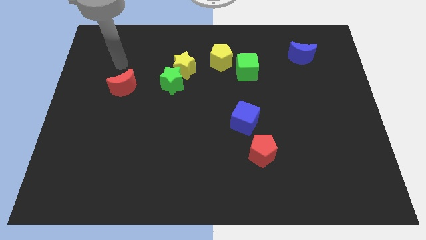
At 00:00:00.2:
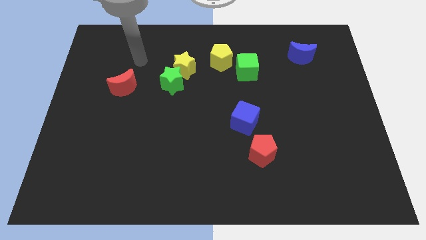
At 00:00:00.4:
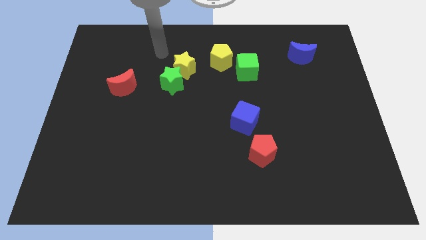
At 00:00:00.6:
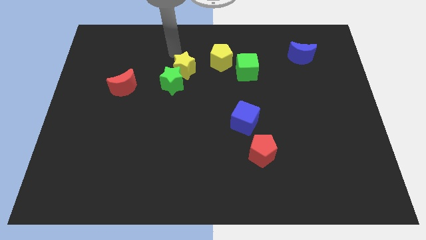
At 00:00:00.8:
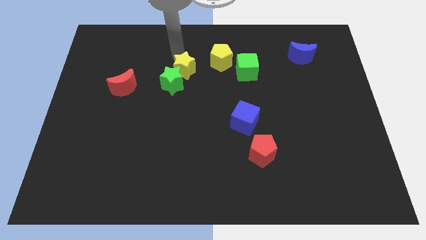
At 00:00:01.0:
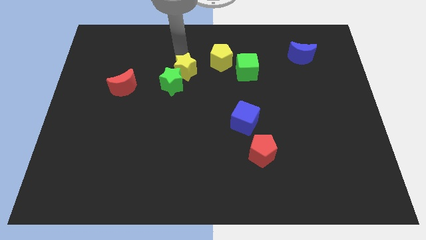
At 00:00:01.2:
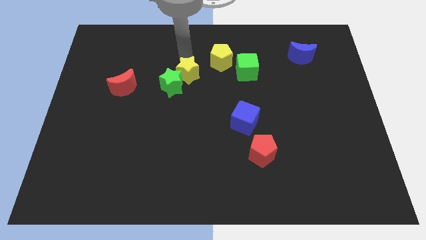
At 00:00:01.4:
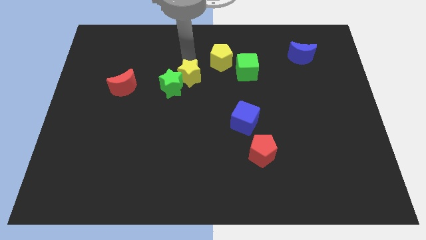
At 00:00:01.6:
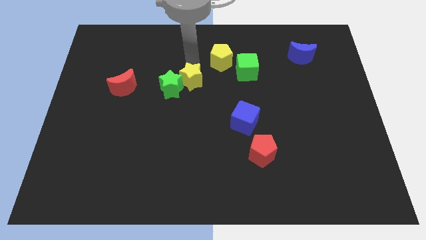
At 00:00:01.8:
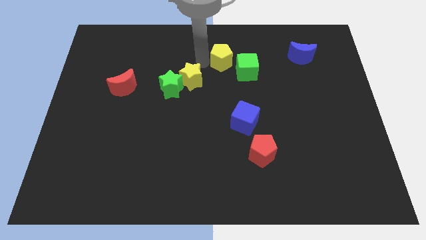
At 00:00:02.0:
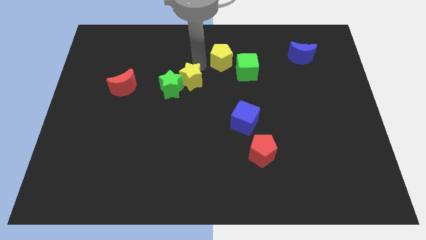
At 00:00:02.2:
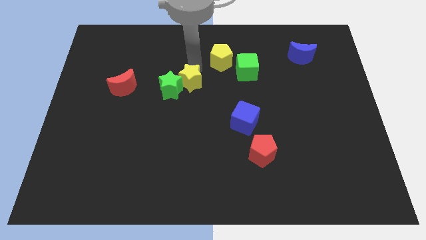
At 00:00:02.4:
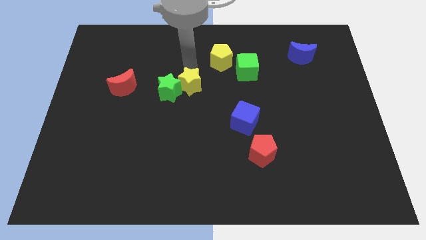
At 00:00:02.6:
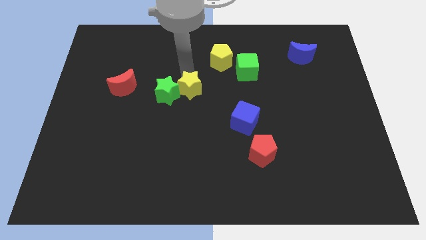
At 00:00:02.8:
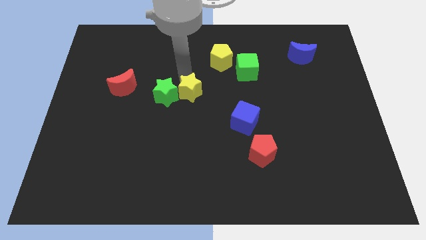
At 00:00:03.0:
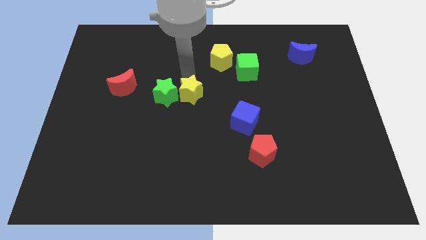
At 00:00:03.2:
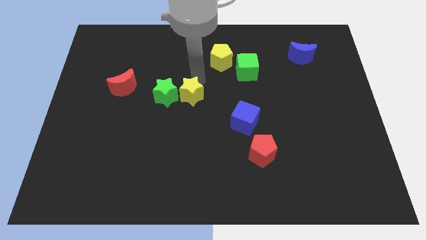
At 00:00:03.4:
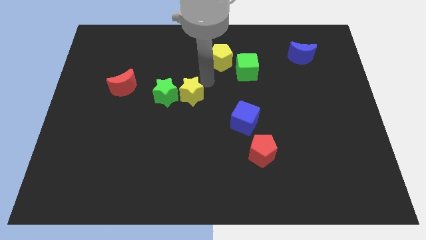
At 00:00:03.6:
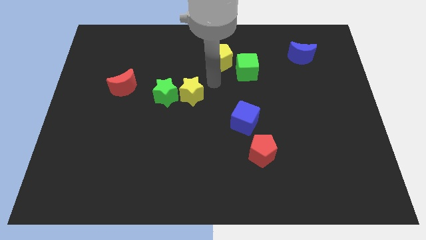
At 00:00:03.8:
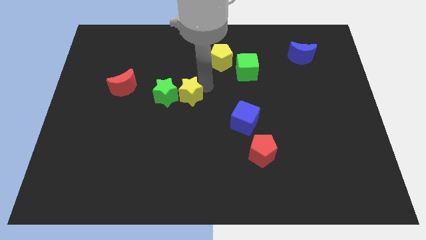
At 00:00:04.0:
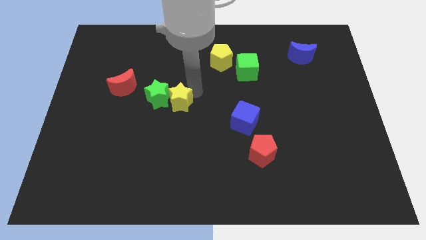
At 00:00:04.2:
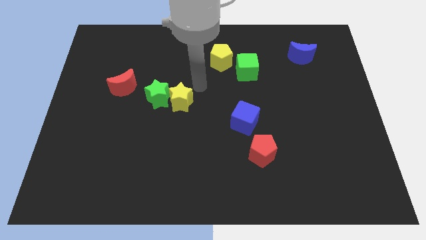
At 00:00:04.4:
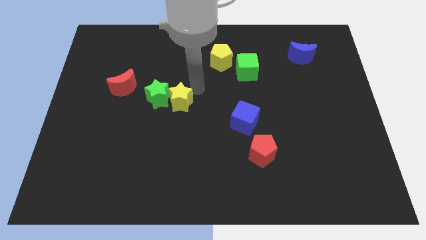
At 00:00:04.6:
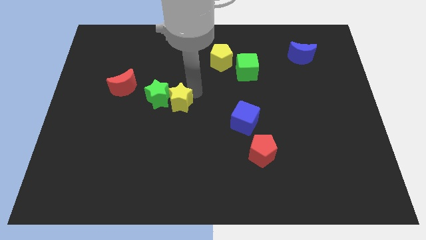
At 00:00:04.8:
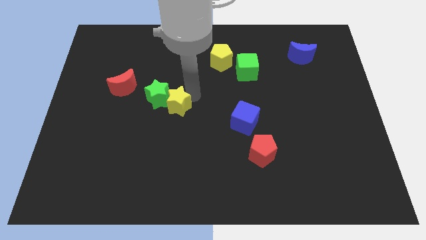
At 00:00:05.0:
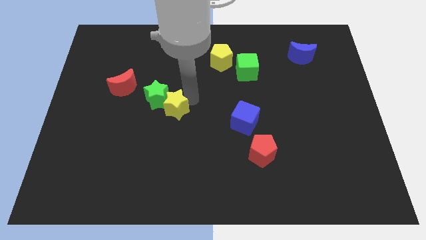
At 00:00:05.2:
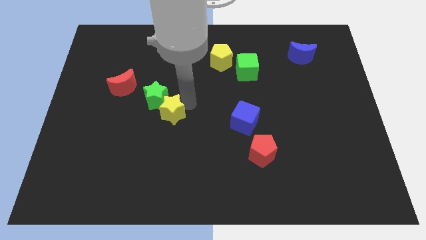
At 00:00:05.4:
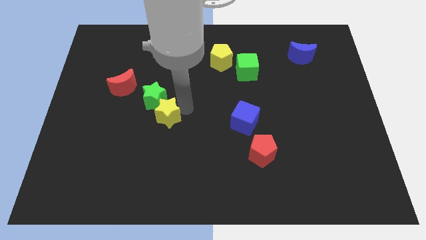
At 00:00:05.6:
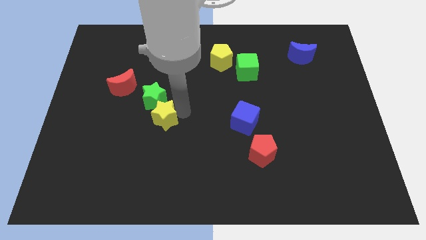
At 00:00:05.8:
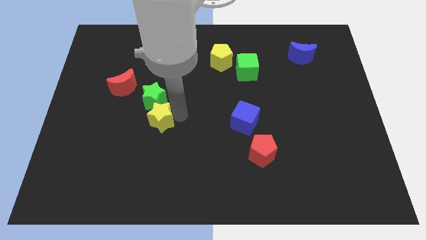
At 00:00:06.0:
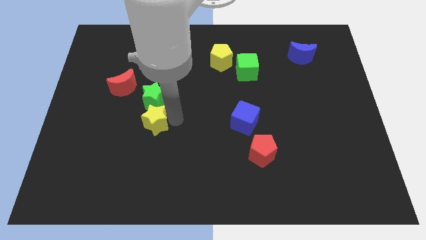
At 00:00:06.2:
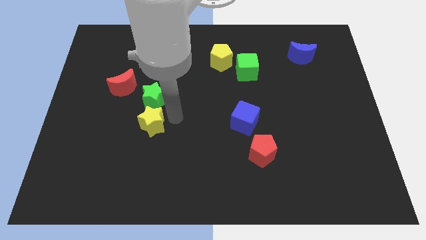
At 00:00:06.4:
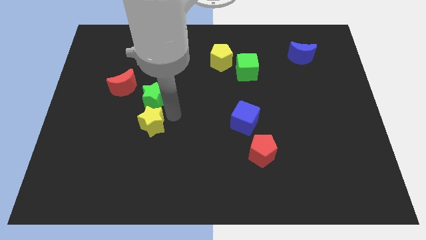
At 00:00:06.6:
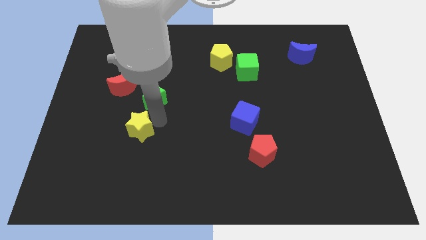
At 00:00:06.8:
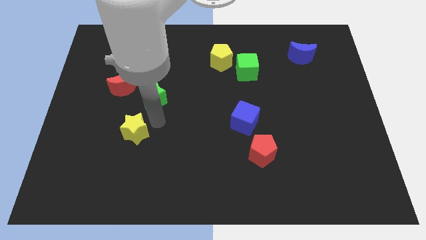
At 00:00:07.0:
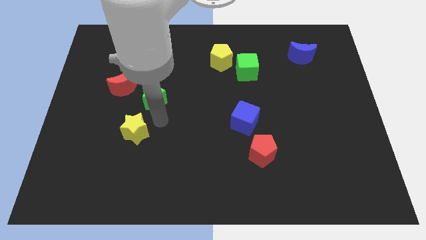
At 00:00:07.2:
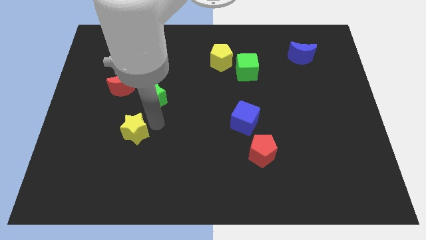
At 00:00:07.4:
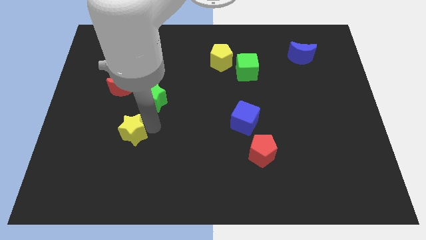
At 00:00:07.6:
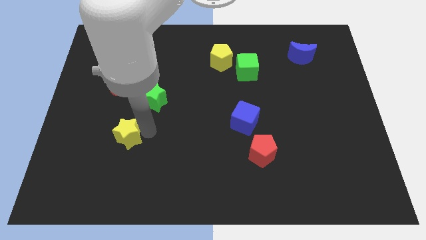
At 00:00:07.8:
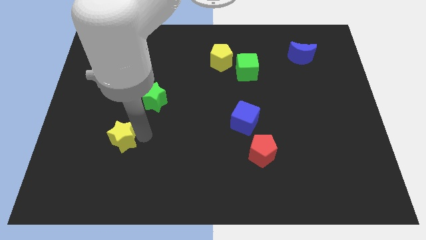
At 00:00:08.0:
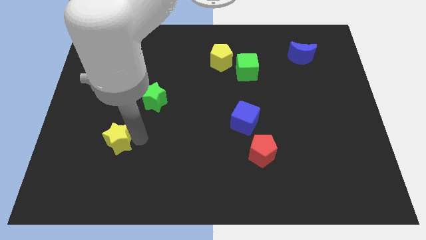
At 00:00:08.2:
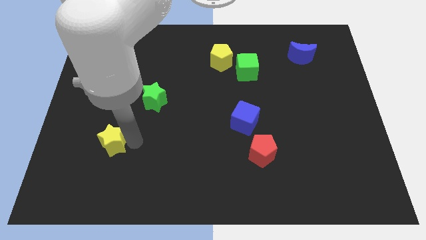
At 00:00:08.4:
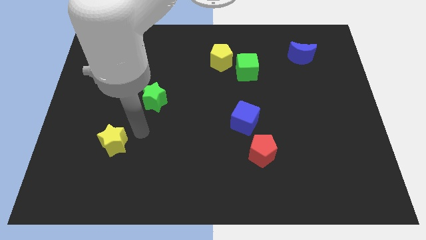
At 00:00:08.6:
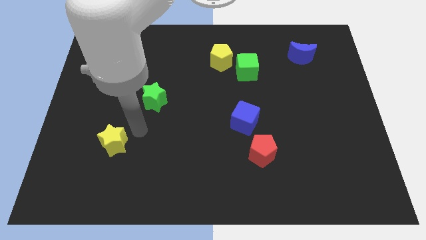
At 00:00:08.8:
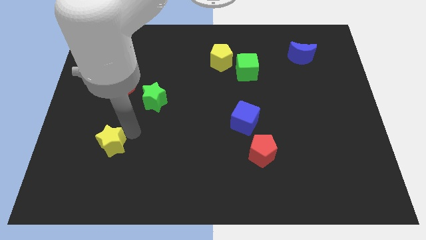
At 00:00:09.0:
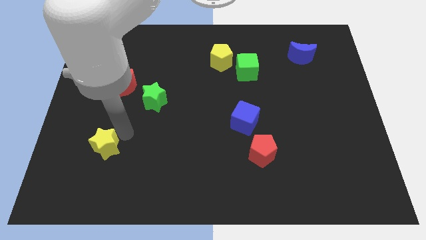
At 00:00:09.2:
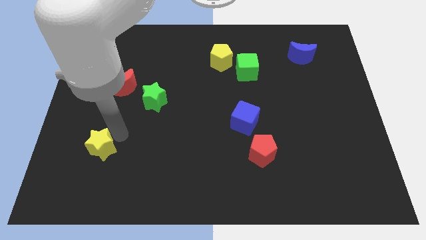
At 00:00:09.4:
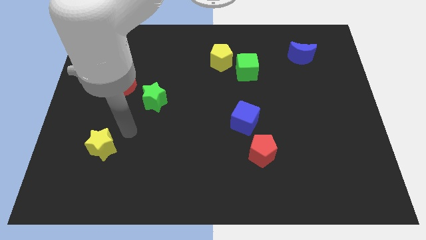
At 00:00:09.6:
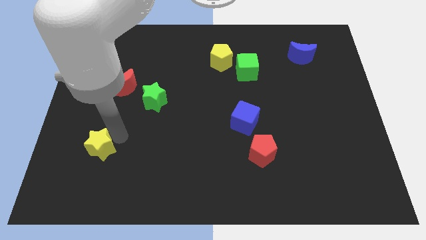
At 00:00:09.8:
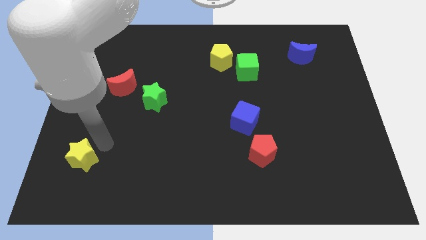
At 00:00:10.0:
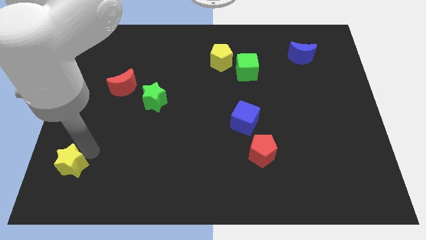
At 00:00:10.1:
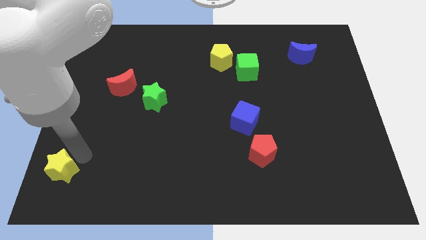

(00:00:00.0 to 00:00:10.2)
push the yellow star to the bottom left corner
